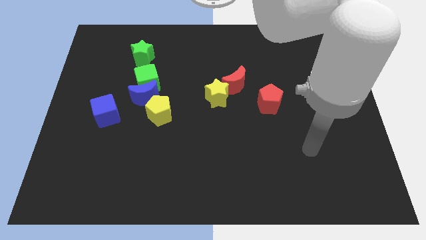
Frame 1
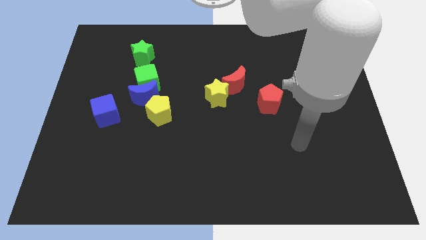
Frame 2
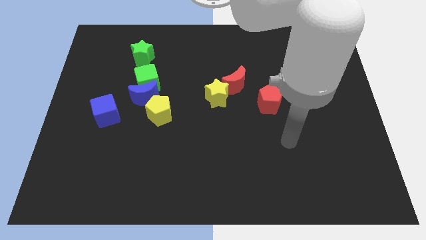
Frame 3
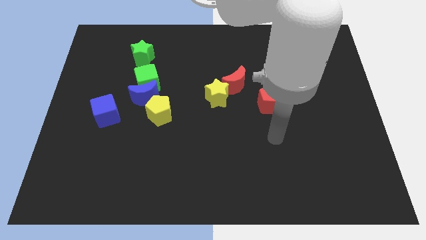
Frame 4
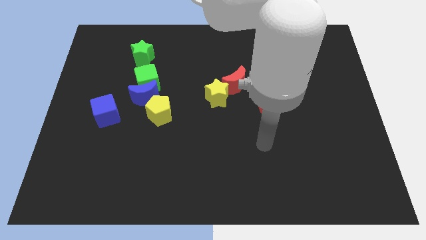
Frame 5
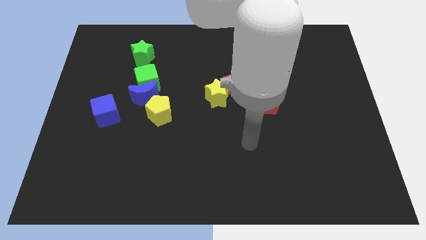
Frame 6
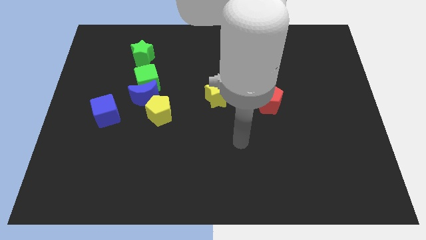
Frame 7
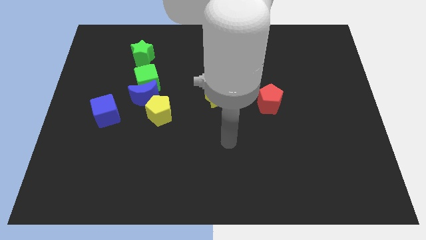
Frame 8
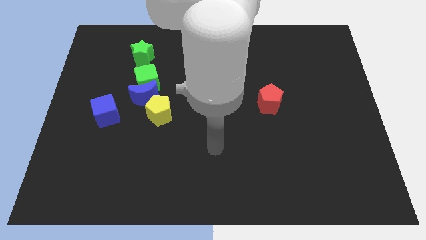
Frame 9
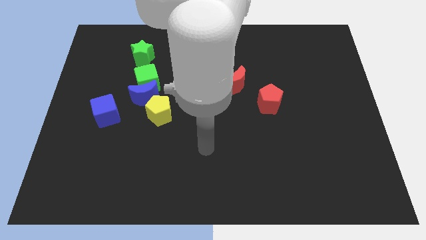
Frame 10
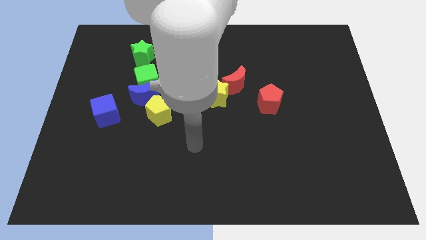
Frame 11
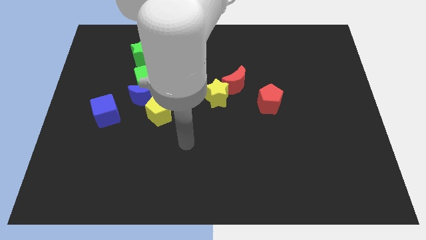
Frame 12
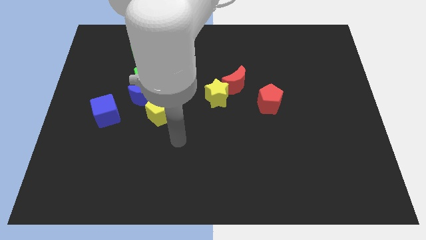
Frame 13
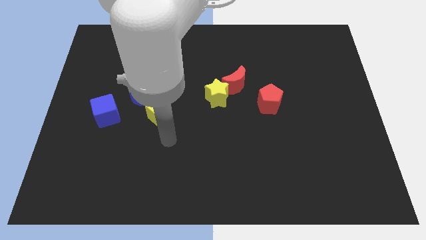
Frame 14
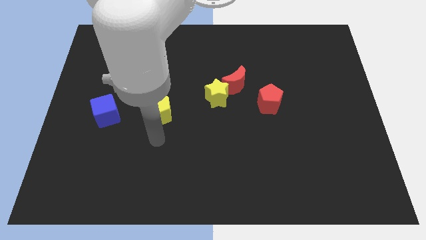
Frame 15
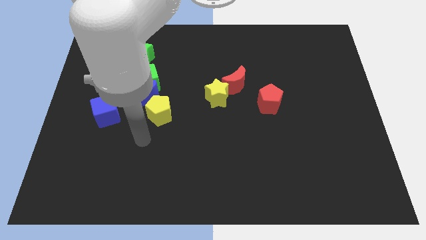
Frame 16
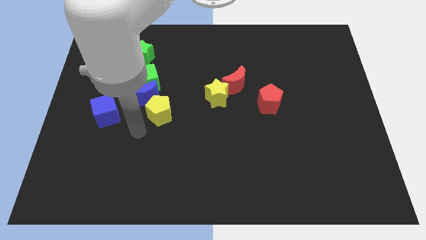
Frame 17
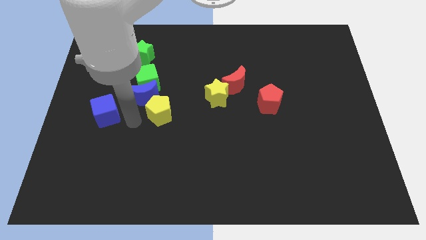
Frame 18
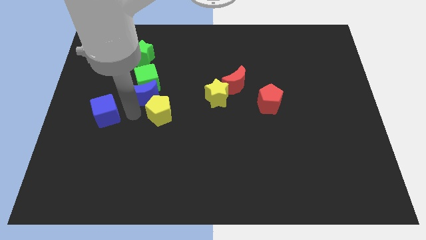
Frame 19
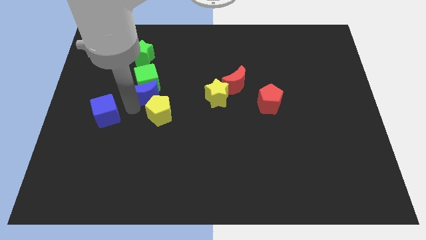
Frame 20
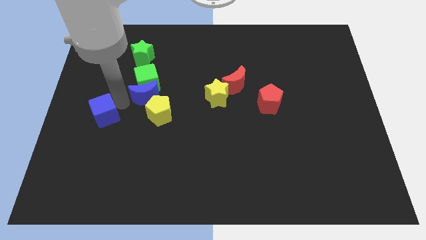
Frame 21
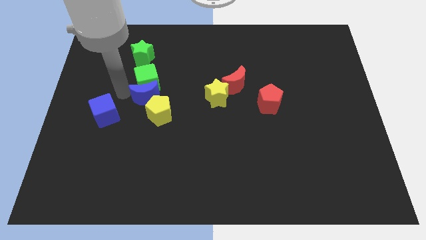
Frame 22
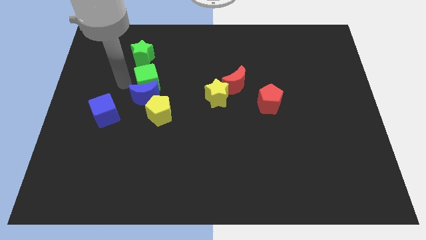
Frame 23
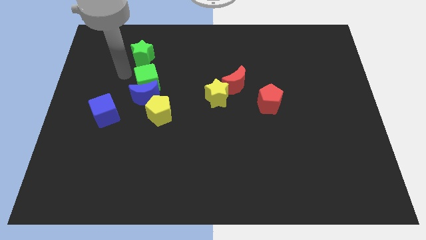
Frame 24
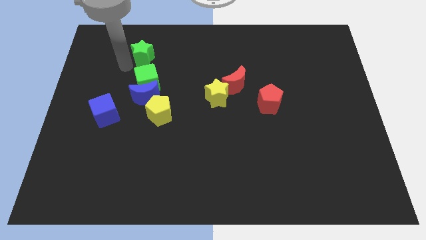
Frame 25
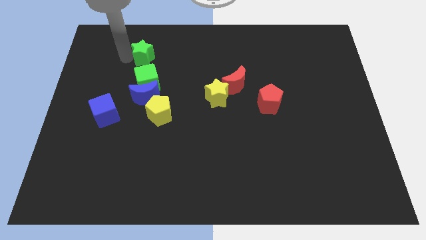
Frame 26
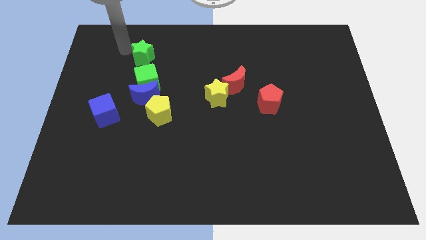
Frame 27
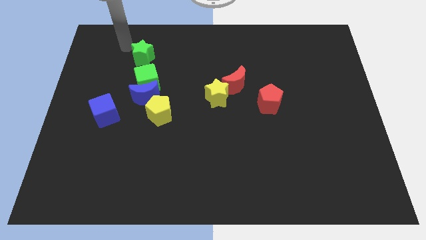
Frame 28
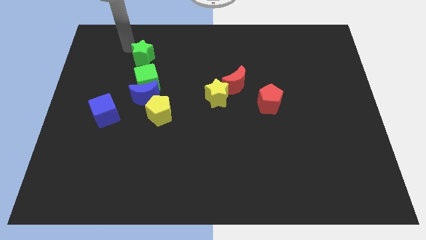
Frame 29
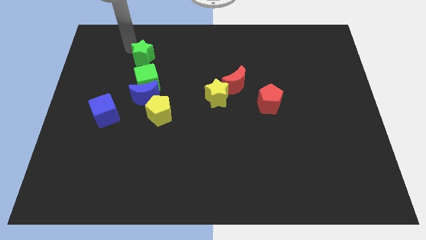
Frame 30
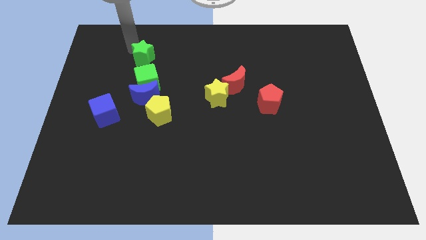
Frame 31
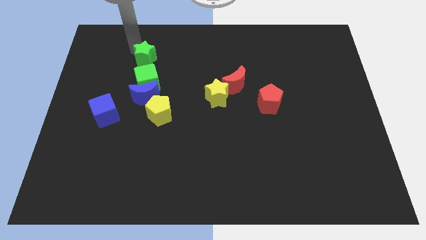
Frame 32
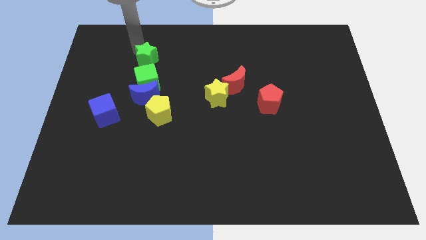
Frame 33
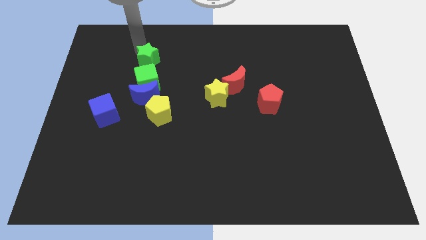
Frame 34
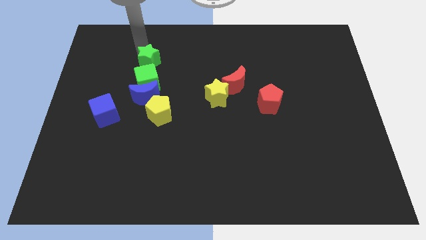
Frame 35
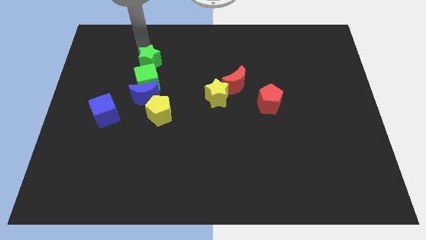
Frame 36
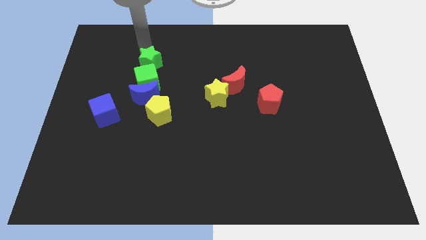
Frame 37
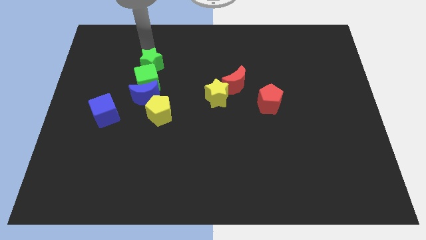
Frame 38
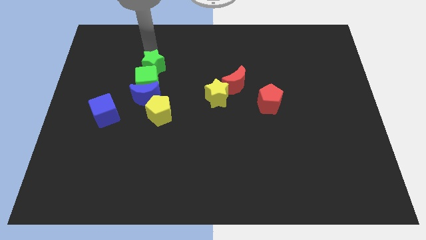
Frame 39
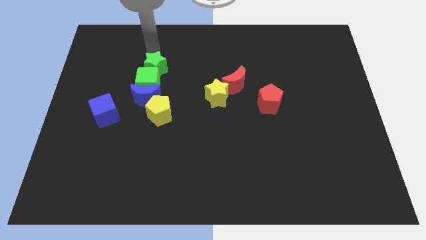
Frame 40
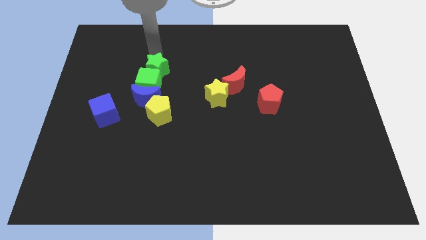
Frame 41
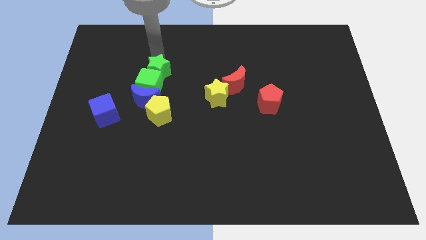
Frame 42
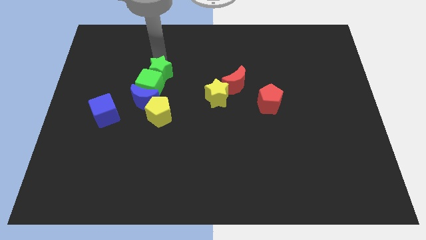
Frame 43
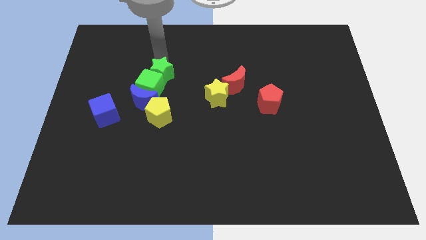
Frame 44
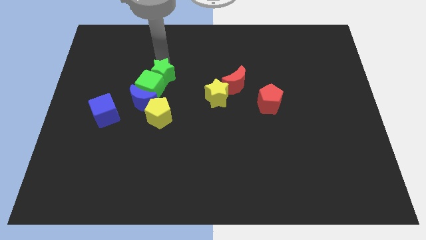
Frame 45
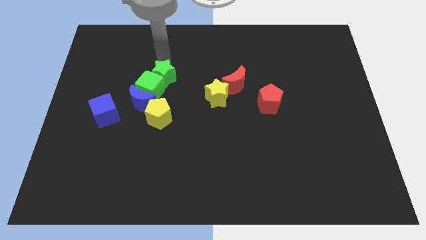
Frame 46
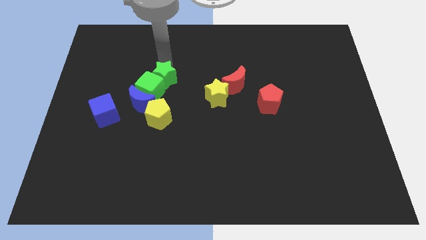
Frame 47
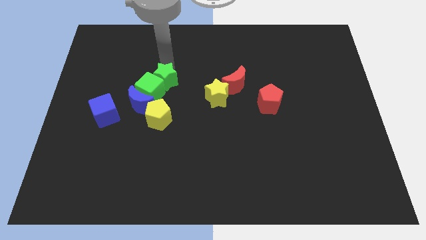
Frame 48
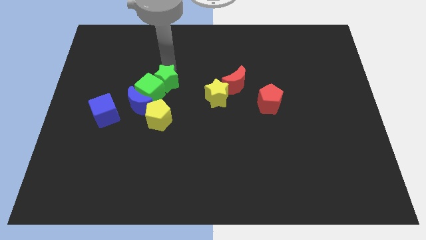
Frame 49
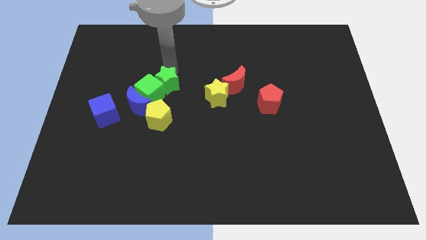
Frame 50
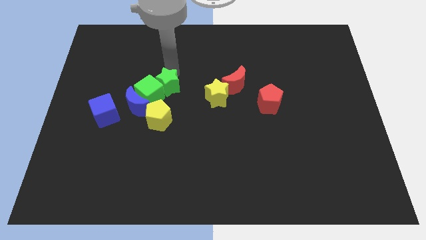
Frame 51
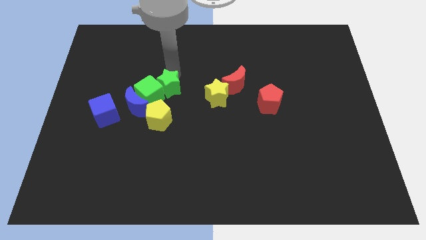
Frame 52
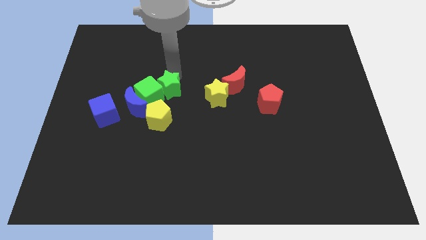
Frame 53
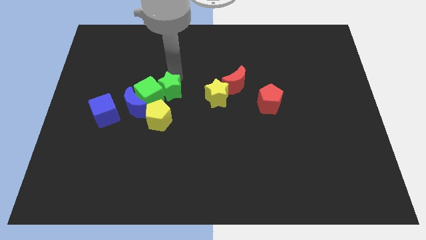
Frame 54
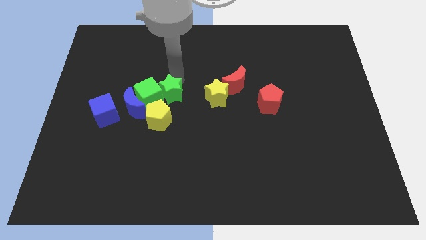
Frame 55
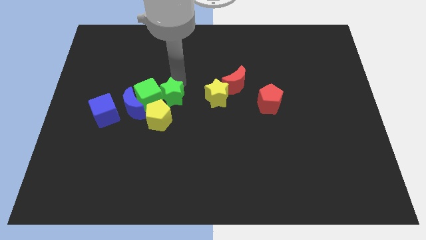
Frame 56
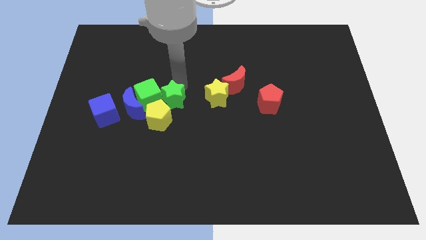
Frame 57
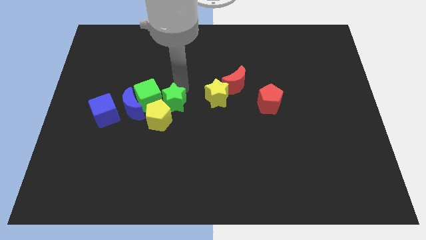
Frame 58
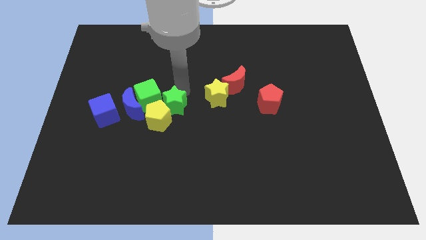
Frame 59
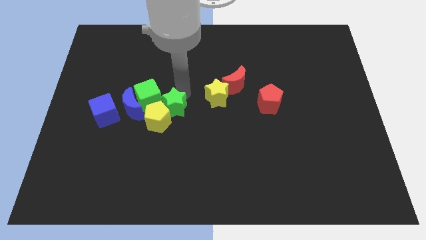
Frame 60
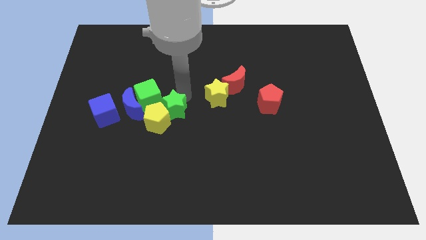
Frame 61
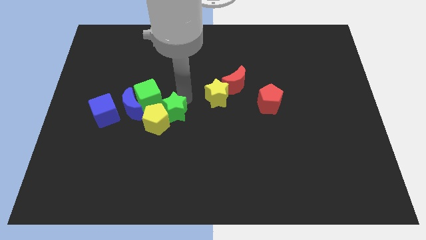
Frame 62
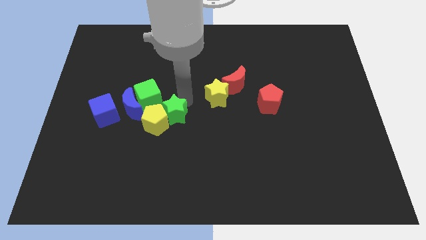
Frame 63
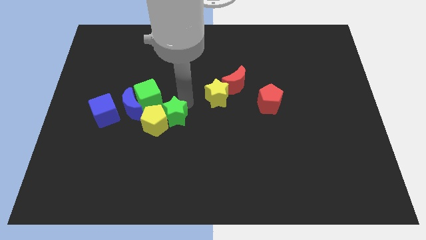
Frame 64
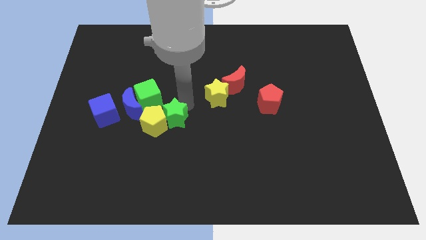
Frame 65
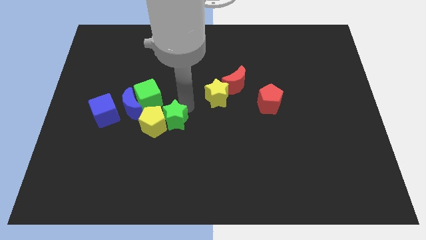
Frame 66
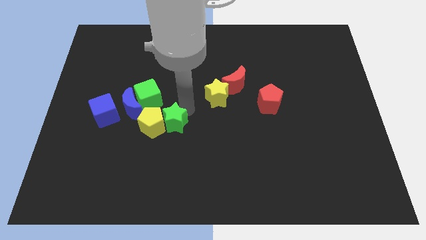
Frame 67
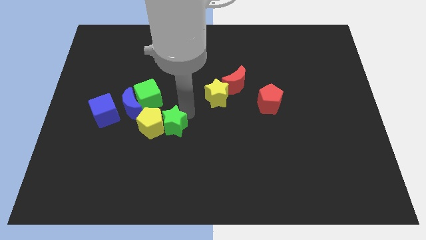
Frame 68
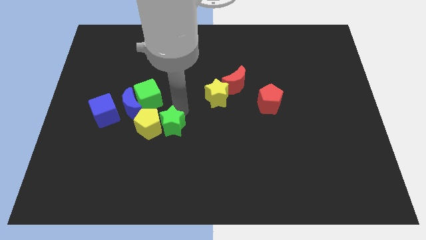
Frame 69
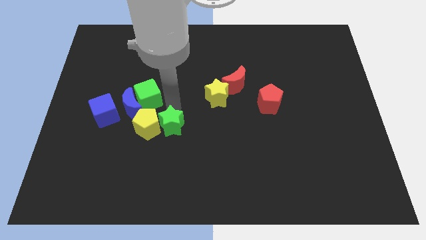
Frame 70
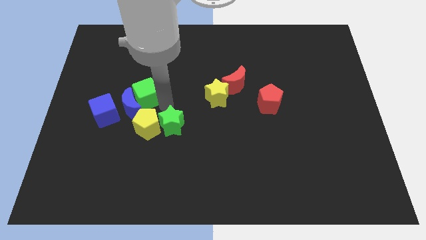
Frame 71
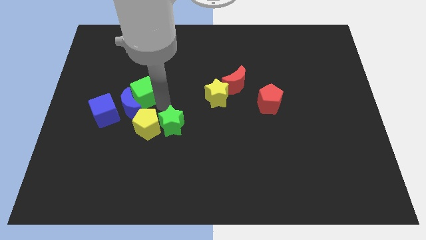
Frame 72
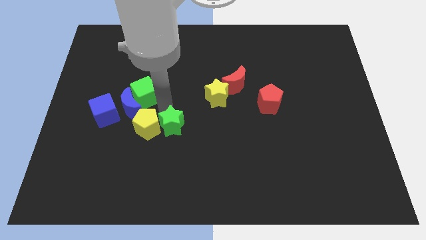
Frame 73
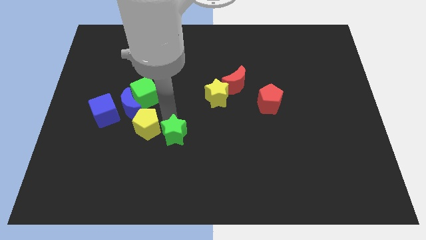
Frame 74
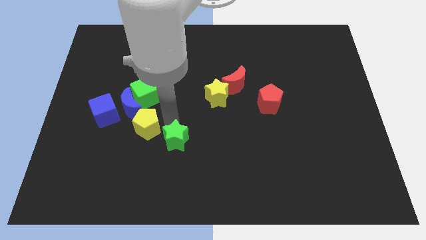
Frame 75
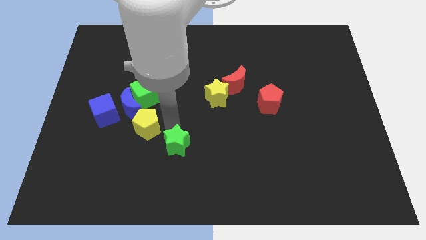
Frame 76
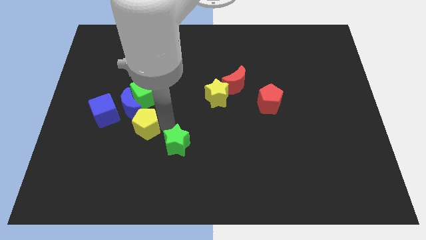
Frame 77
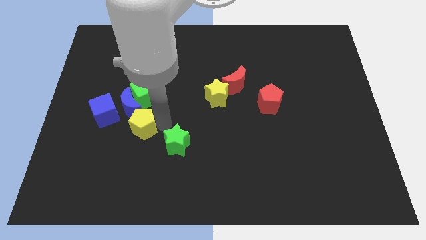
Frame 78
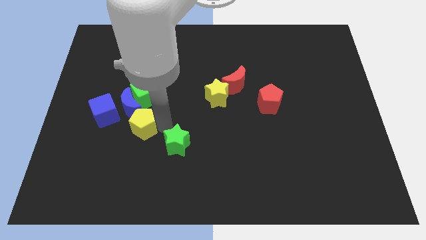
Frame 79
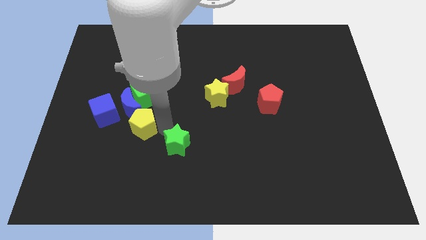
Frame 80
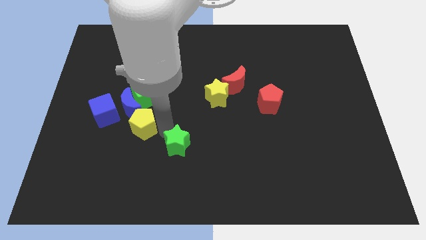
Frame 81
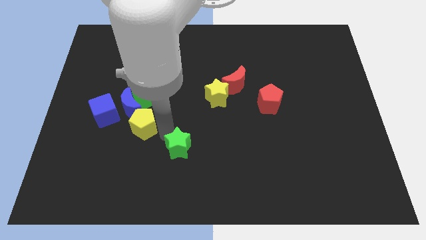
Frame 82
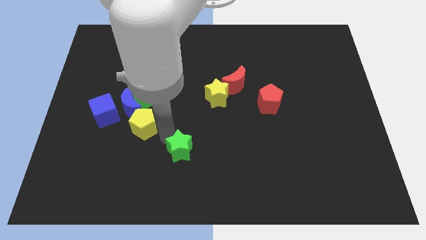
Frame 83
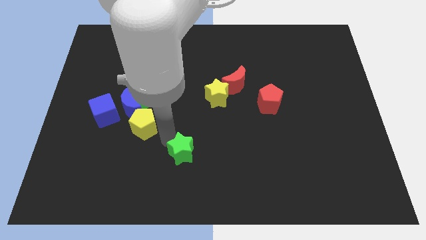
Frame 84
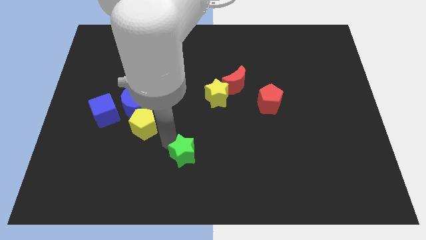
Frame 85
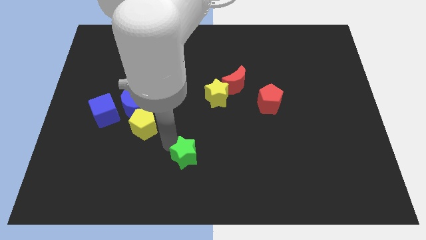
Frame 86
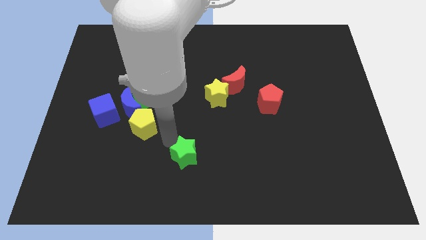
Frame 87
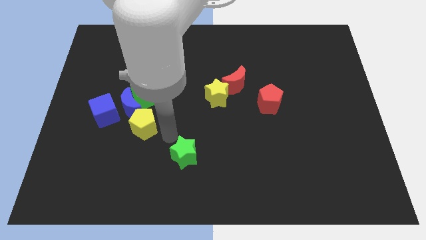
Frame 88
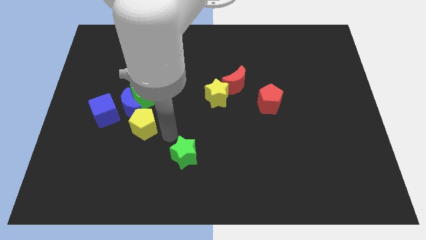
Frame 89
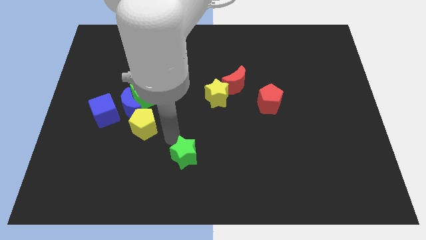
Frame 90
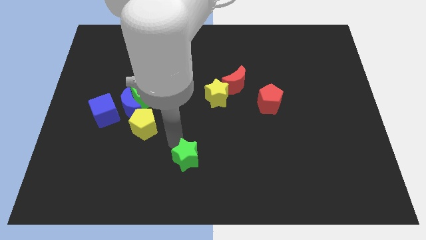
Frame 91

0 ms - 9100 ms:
slide the green star to the bottom side
